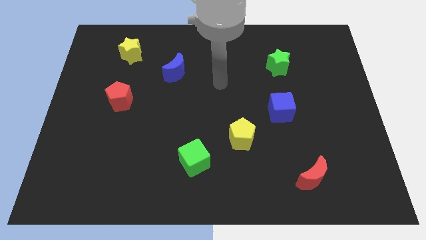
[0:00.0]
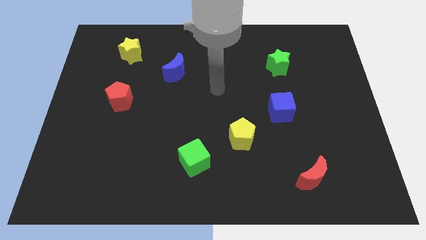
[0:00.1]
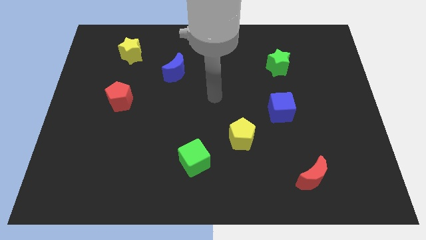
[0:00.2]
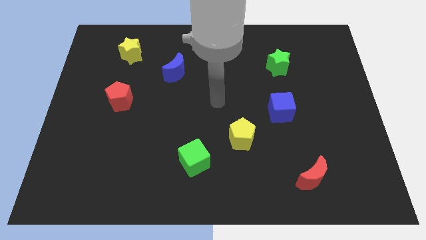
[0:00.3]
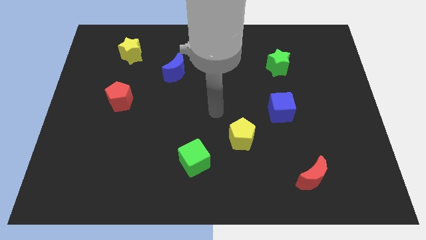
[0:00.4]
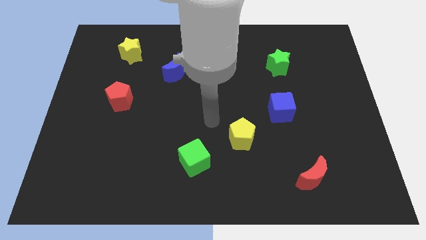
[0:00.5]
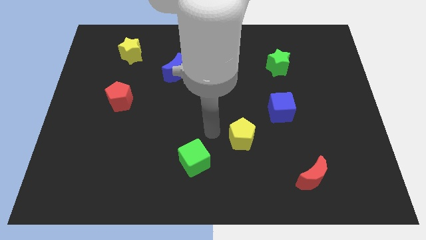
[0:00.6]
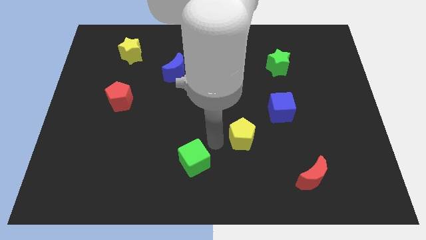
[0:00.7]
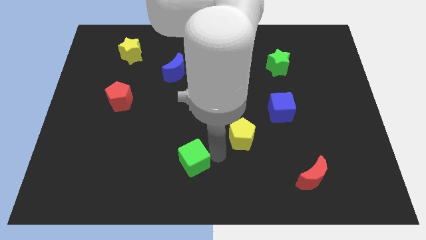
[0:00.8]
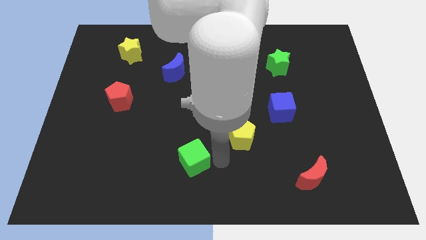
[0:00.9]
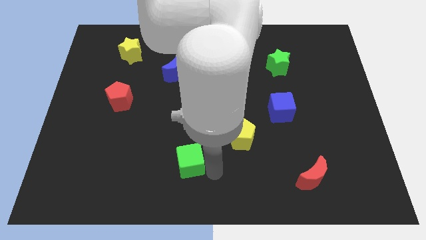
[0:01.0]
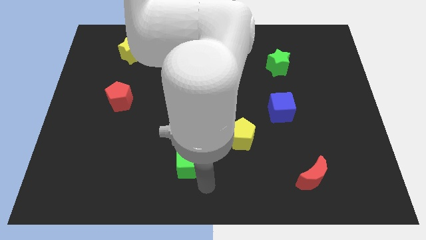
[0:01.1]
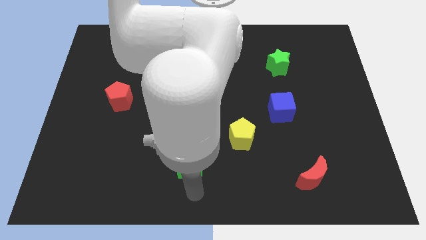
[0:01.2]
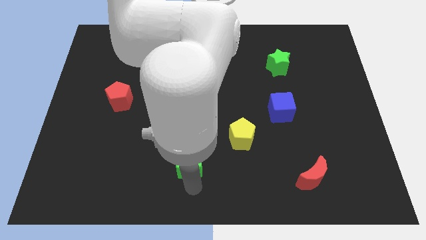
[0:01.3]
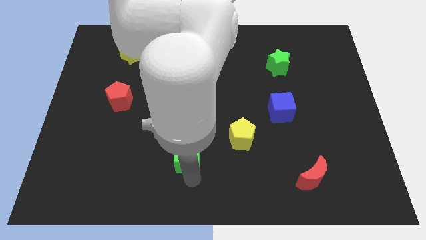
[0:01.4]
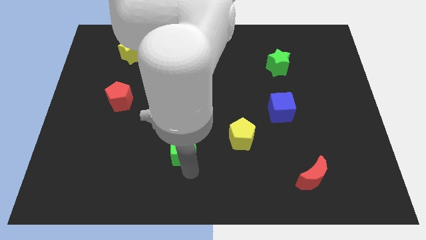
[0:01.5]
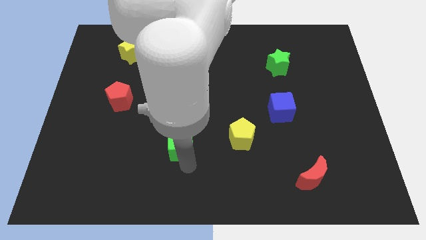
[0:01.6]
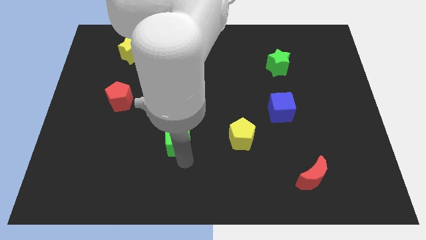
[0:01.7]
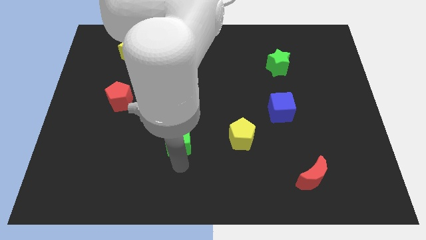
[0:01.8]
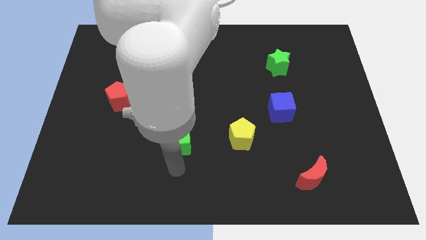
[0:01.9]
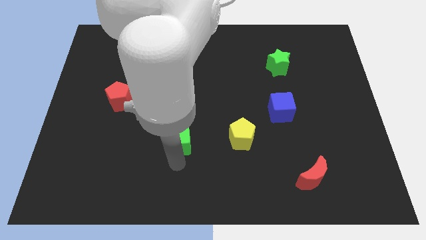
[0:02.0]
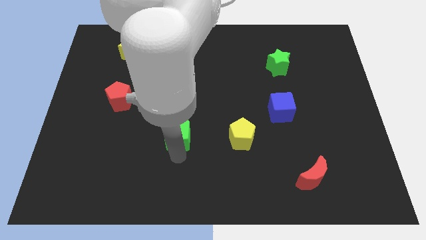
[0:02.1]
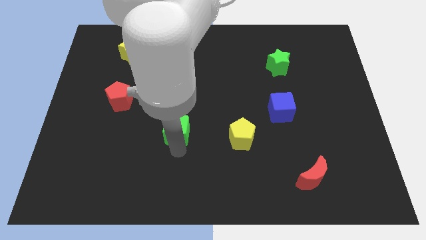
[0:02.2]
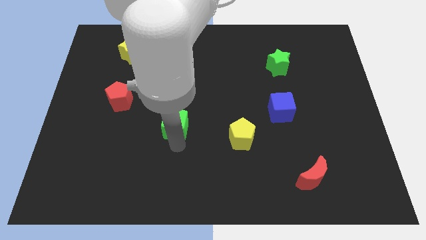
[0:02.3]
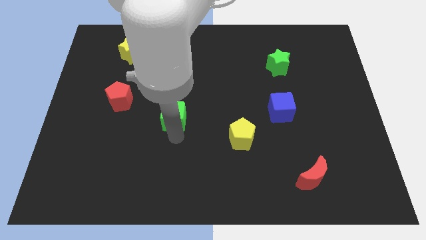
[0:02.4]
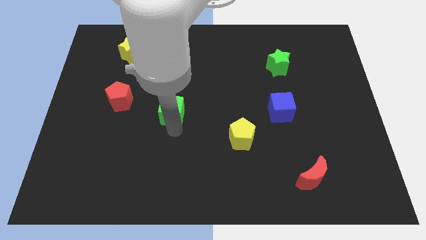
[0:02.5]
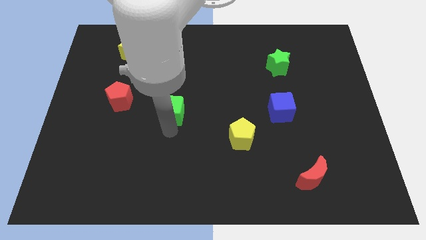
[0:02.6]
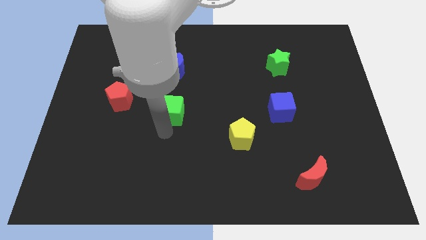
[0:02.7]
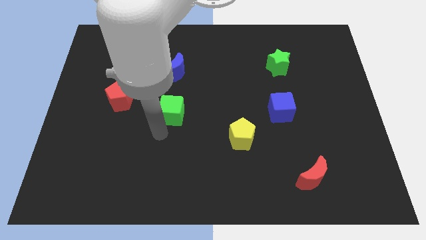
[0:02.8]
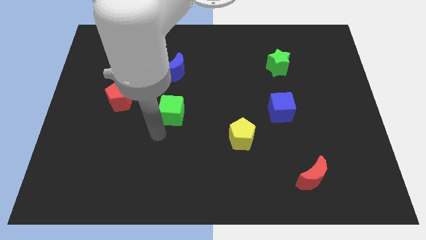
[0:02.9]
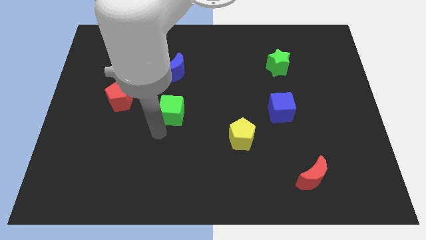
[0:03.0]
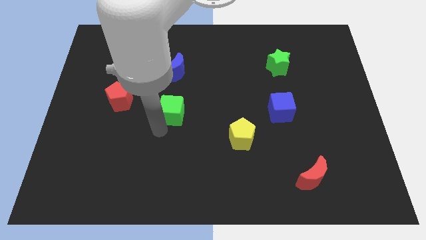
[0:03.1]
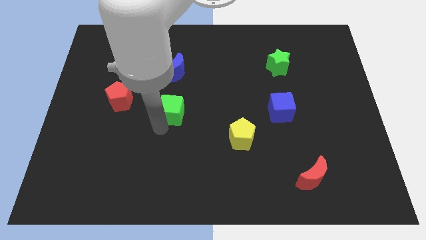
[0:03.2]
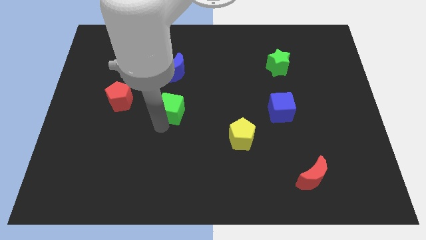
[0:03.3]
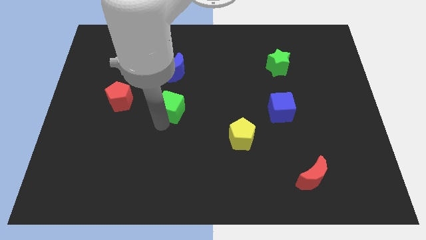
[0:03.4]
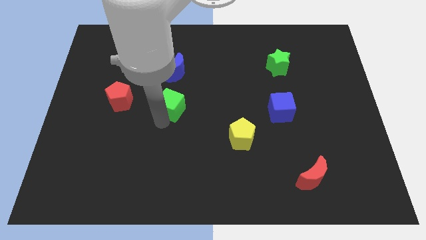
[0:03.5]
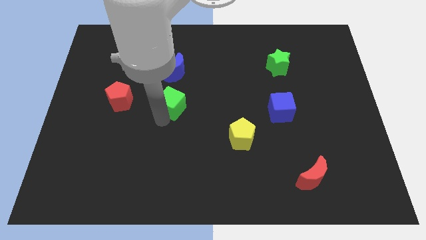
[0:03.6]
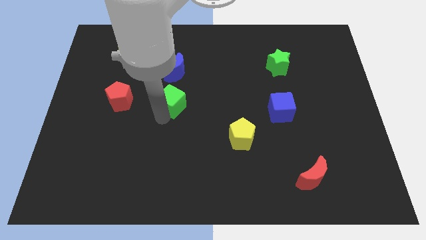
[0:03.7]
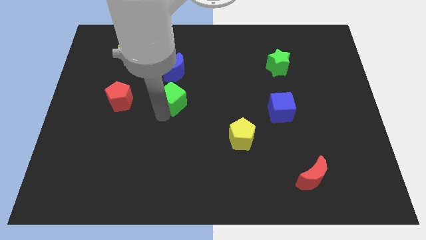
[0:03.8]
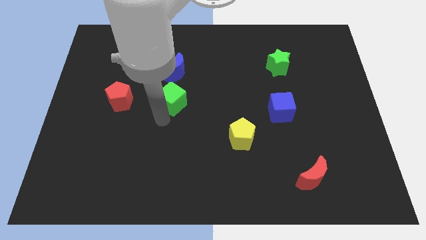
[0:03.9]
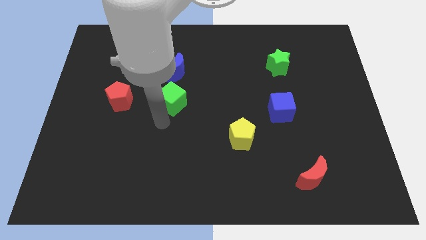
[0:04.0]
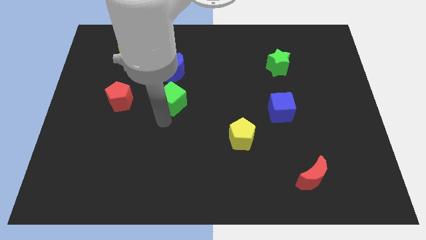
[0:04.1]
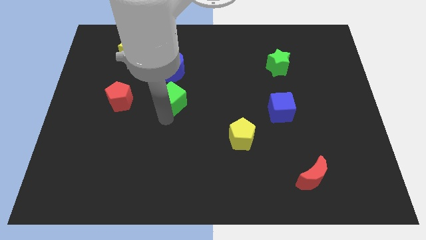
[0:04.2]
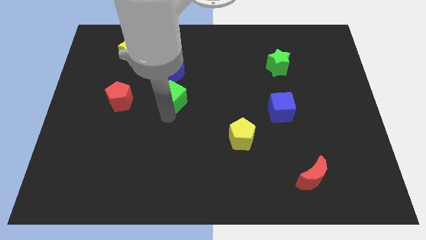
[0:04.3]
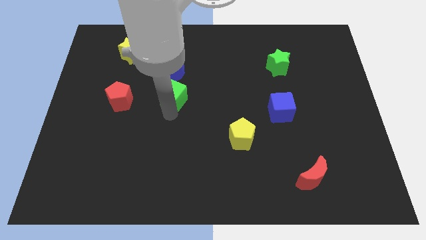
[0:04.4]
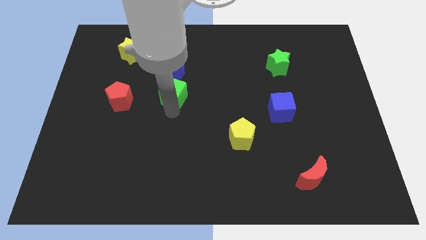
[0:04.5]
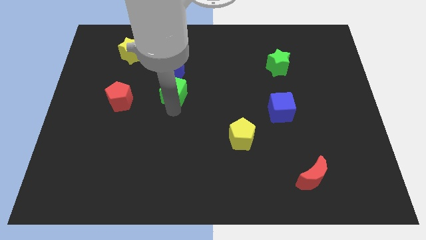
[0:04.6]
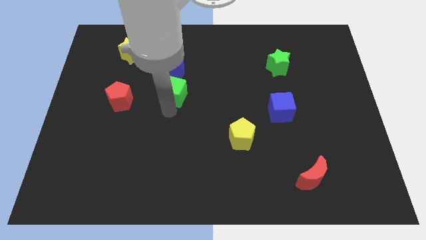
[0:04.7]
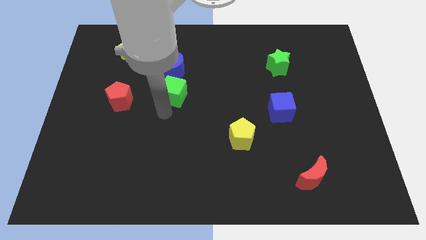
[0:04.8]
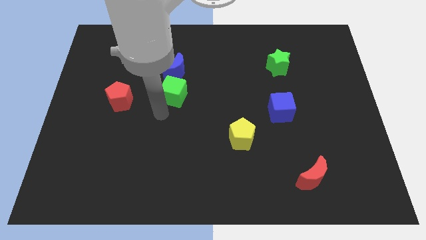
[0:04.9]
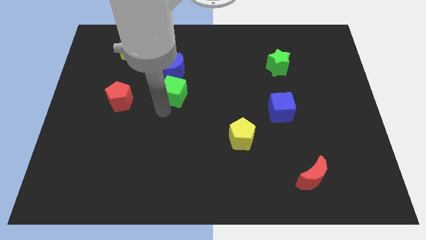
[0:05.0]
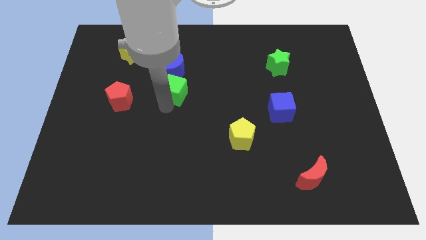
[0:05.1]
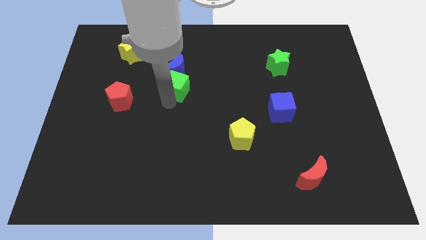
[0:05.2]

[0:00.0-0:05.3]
push the green cube to the blue moon

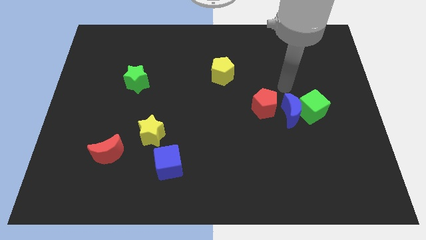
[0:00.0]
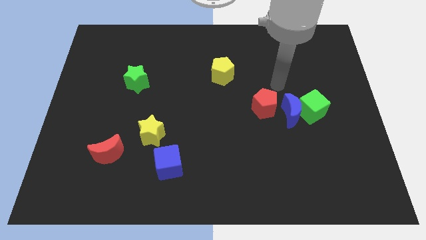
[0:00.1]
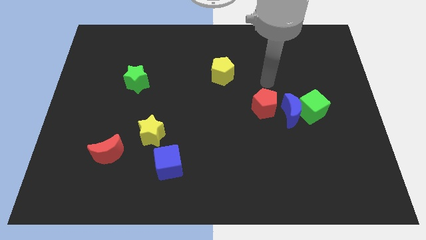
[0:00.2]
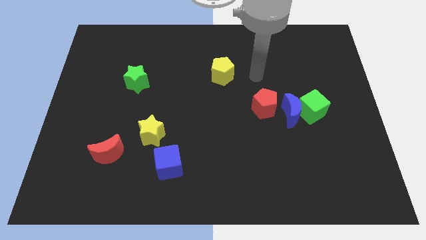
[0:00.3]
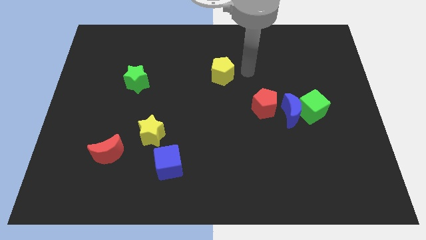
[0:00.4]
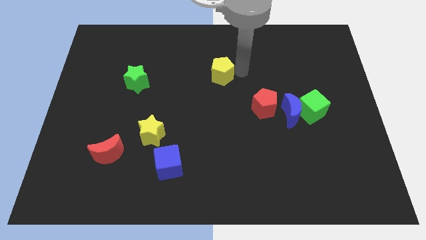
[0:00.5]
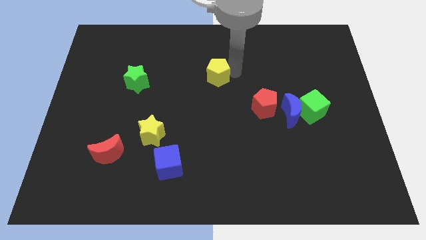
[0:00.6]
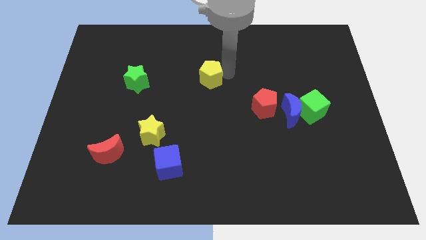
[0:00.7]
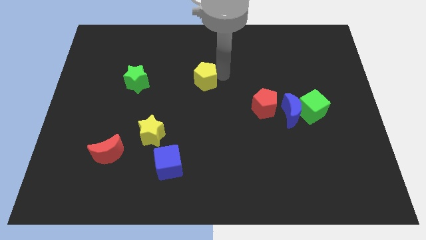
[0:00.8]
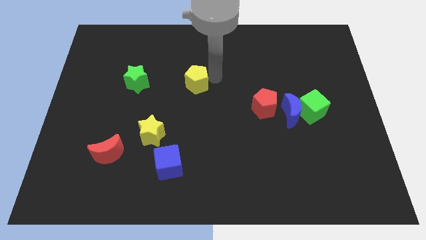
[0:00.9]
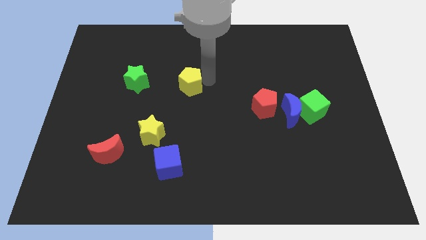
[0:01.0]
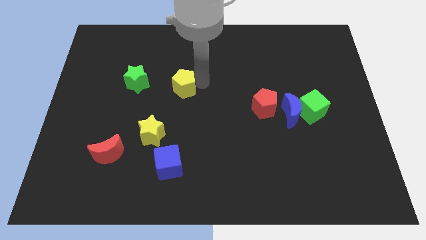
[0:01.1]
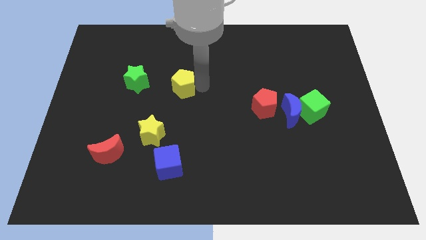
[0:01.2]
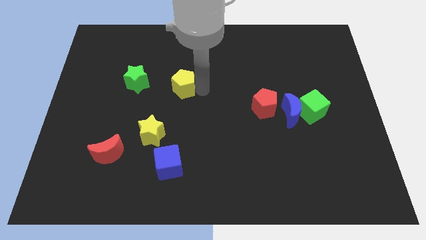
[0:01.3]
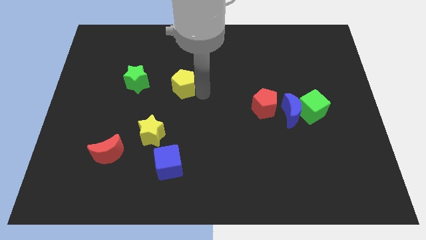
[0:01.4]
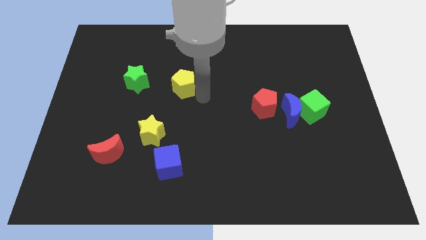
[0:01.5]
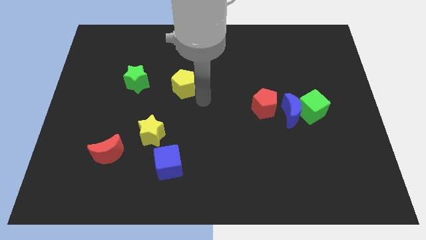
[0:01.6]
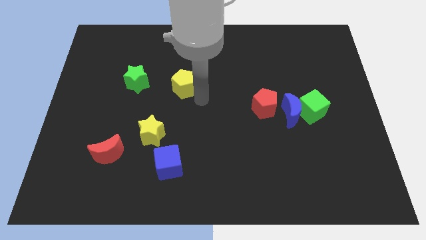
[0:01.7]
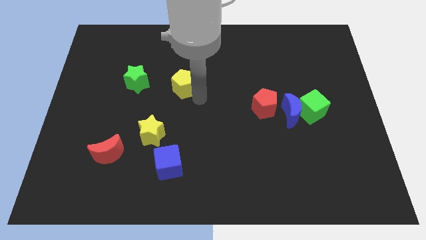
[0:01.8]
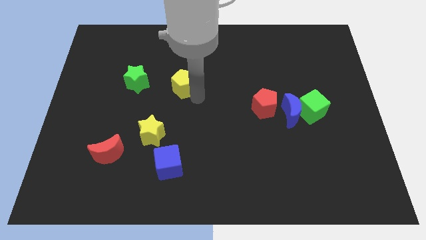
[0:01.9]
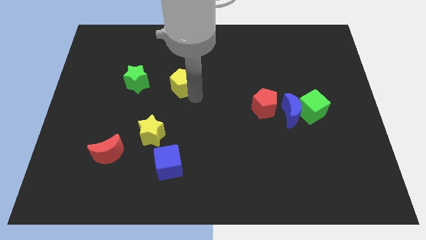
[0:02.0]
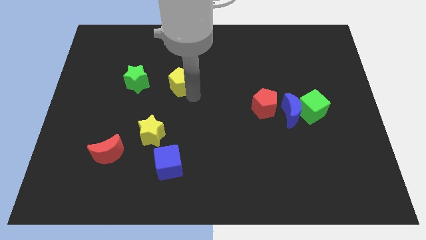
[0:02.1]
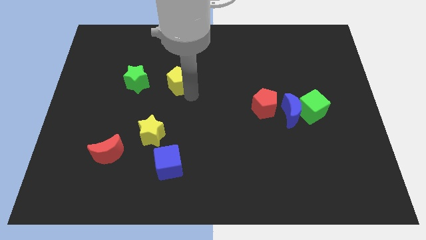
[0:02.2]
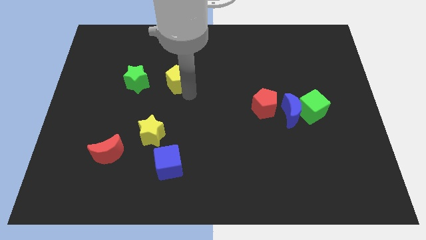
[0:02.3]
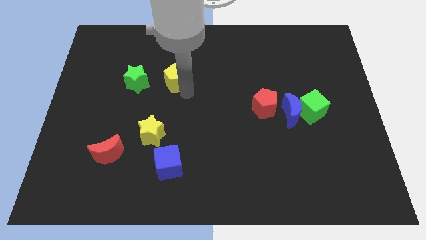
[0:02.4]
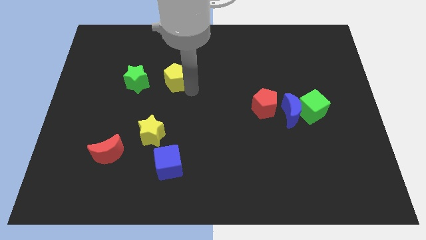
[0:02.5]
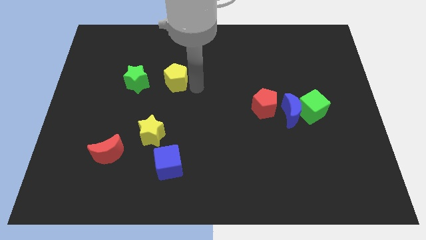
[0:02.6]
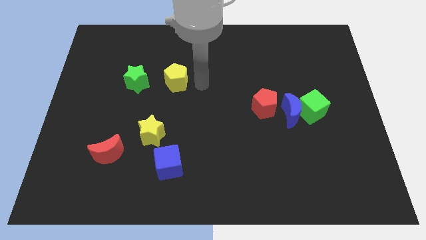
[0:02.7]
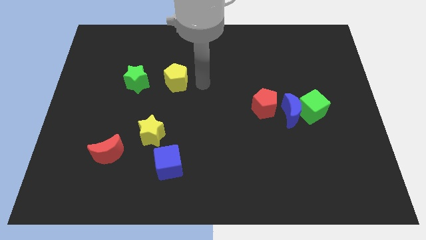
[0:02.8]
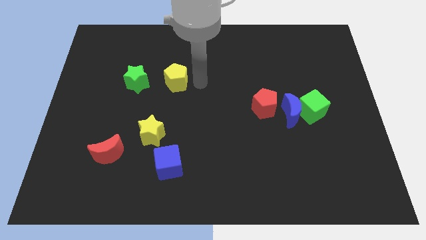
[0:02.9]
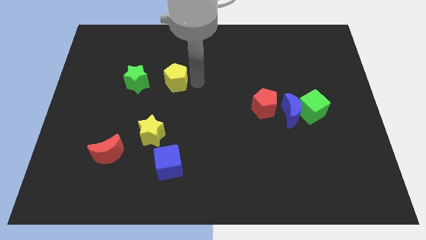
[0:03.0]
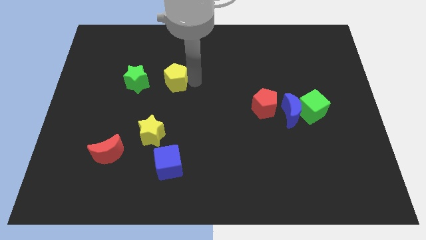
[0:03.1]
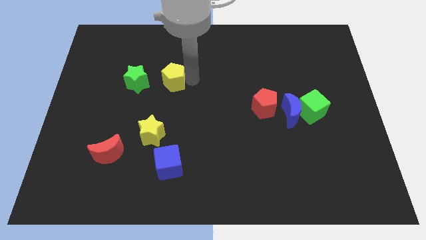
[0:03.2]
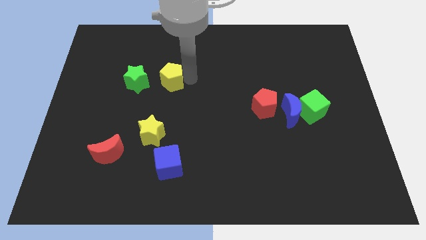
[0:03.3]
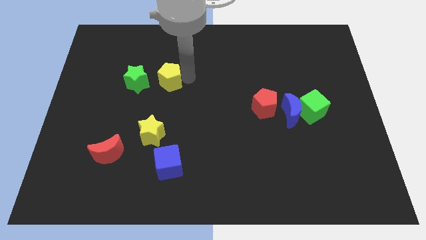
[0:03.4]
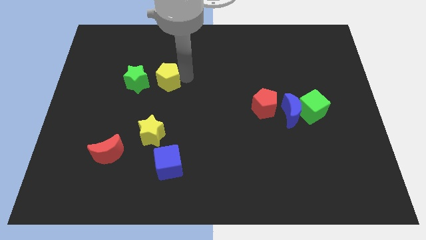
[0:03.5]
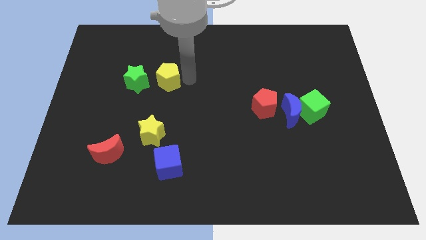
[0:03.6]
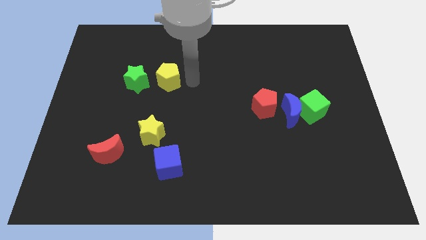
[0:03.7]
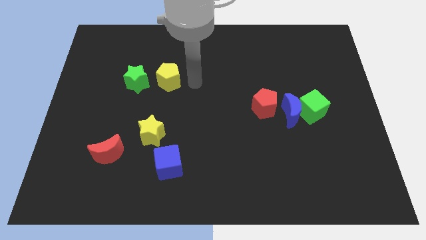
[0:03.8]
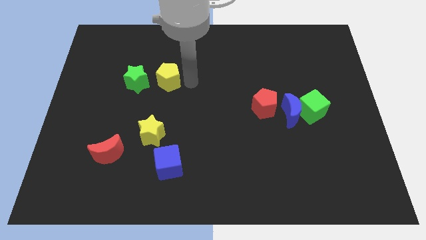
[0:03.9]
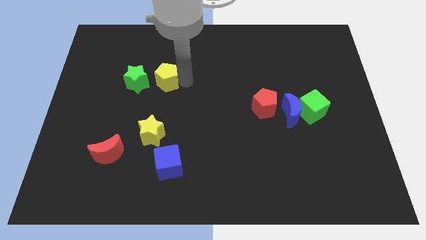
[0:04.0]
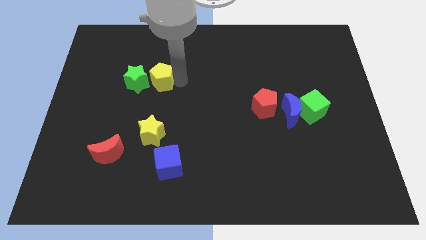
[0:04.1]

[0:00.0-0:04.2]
put the yellow pentagon towards the green star
